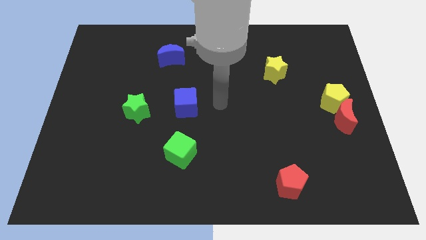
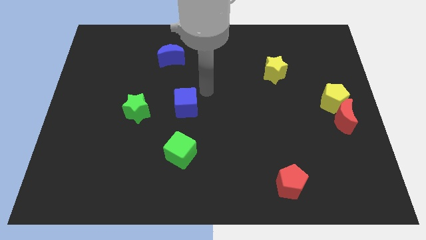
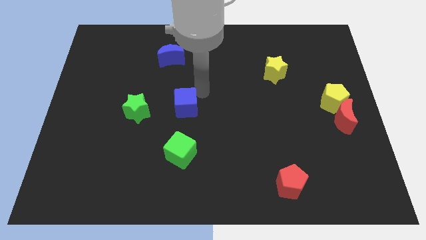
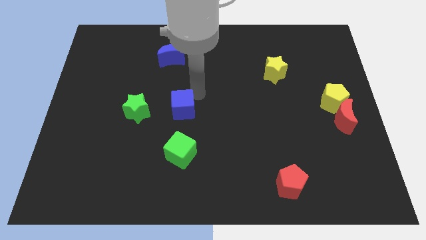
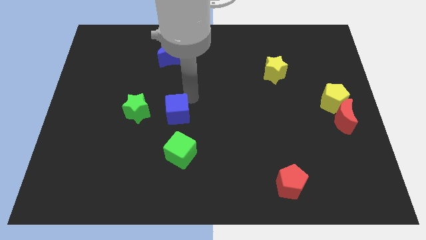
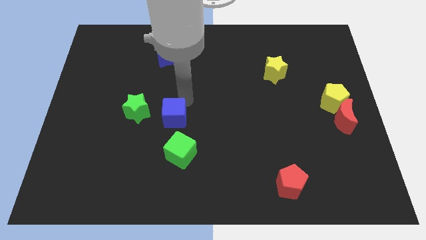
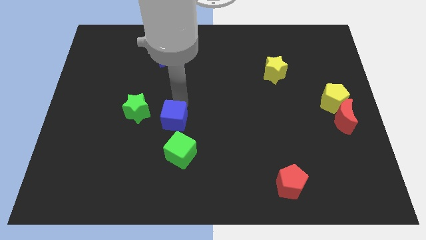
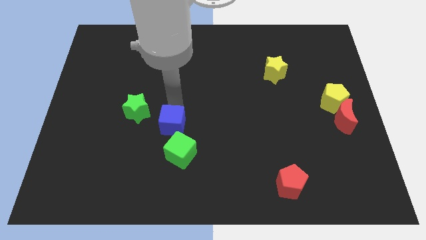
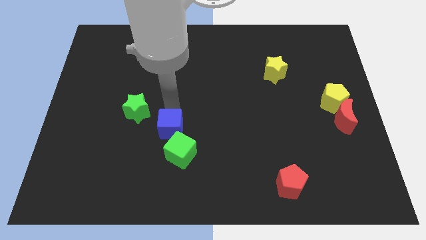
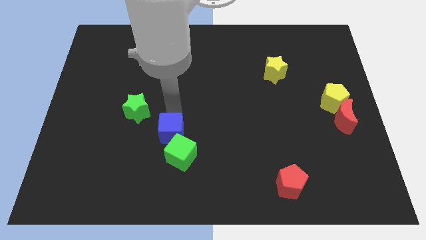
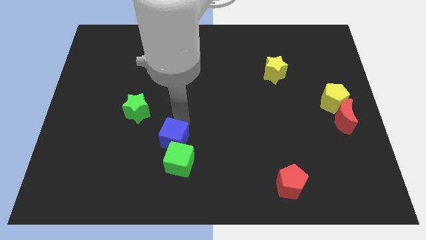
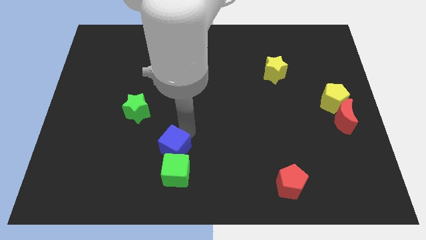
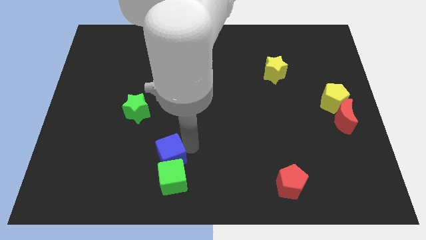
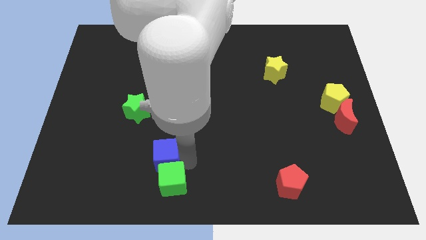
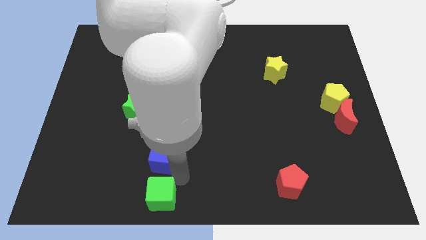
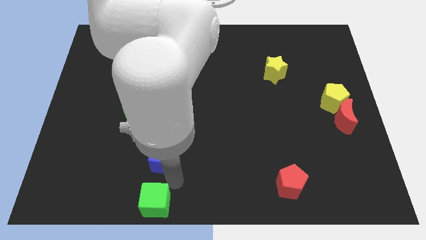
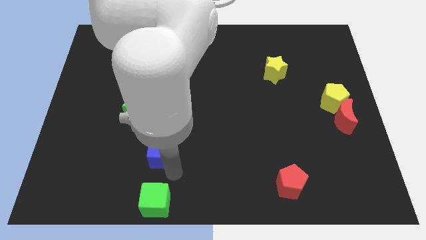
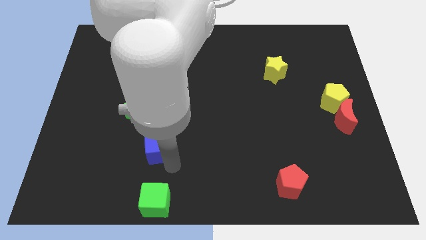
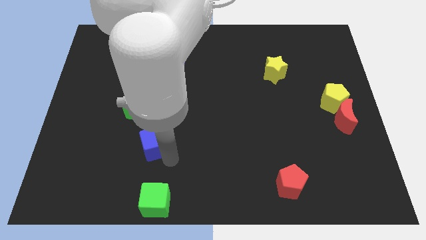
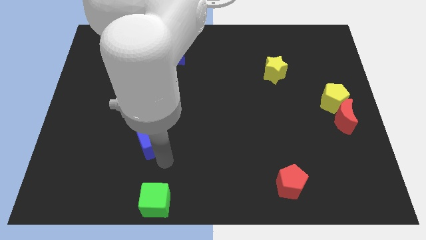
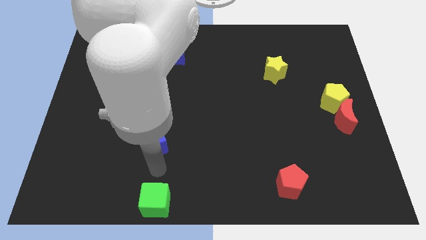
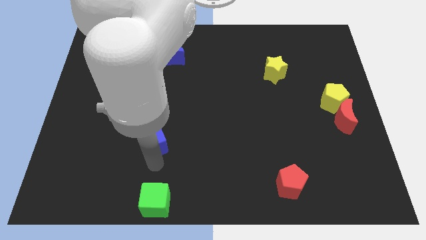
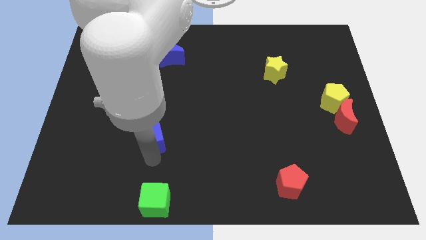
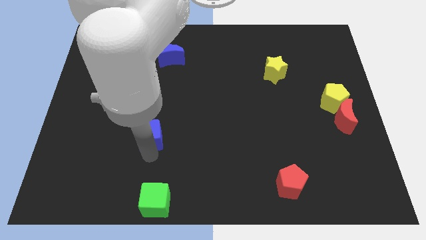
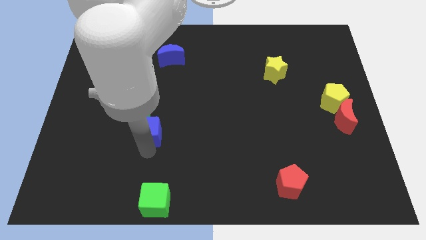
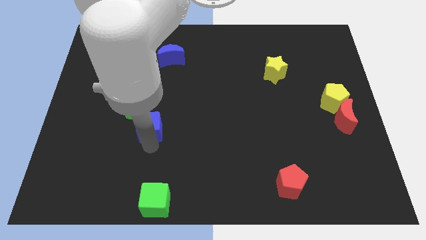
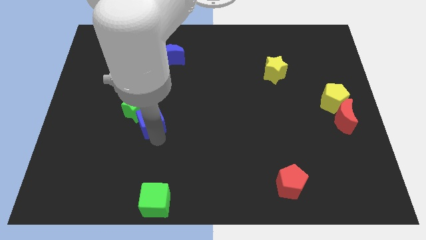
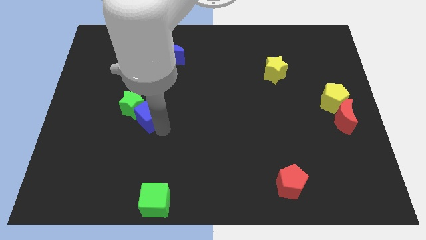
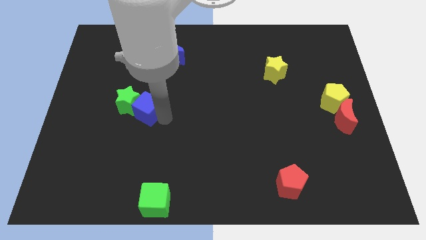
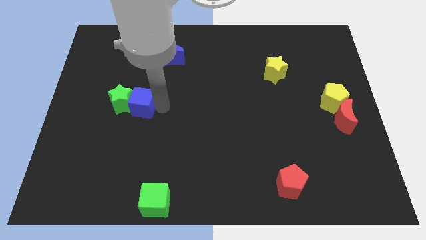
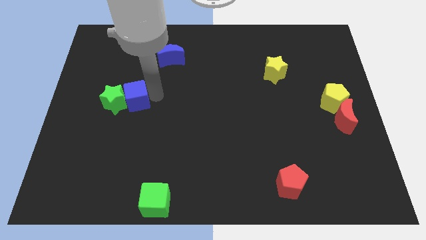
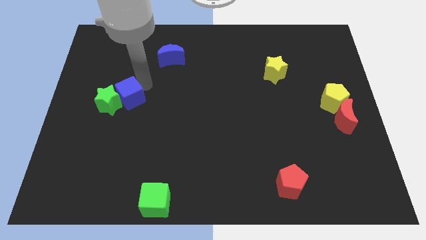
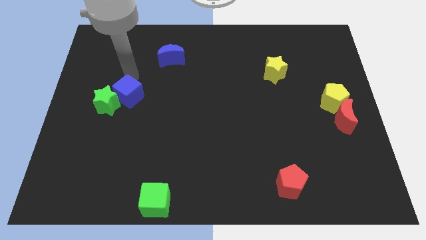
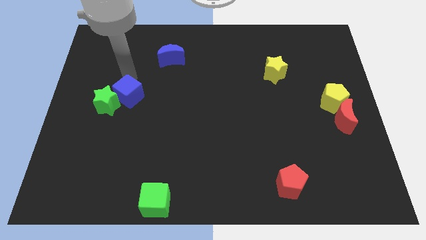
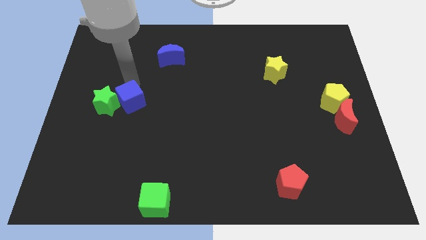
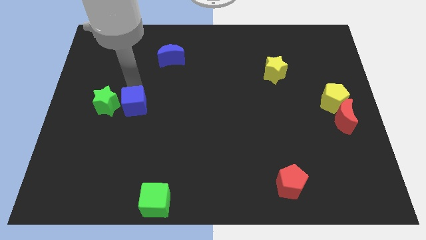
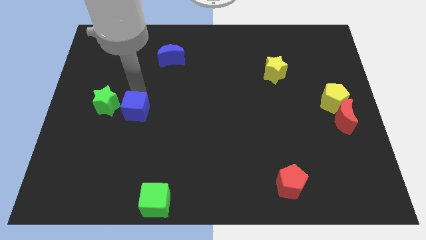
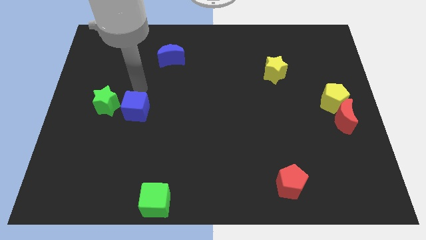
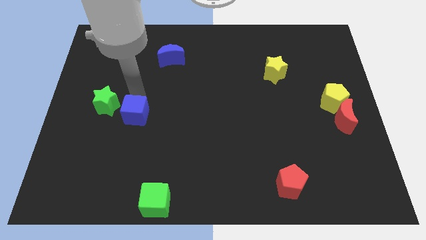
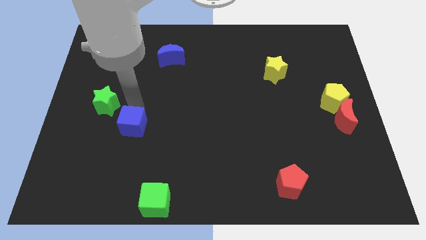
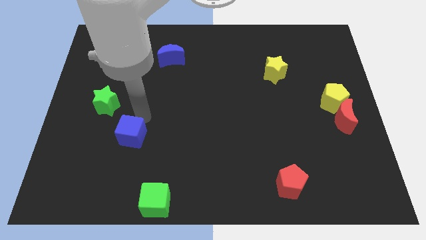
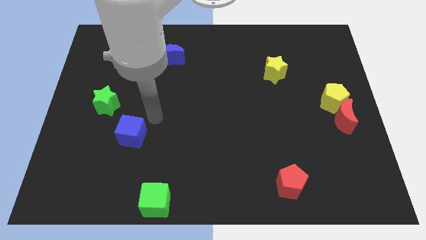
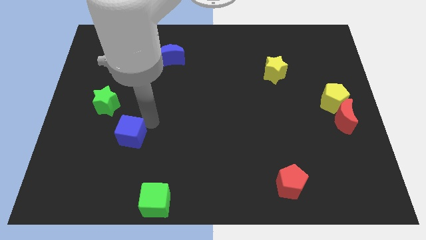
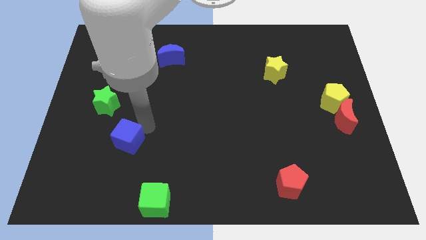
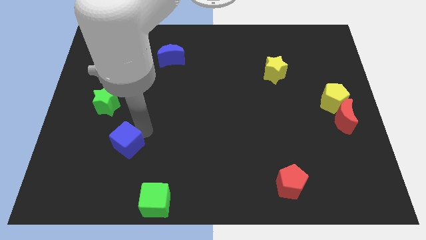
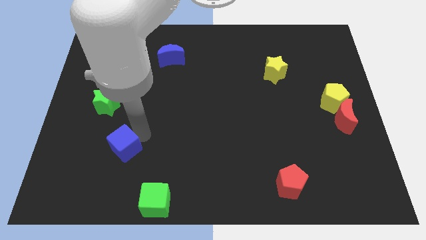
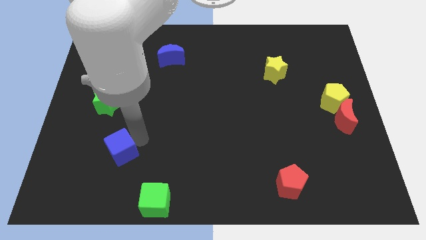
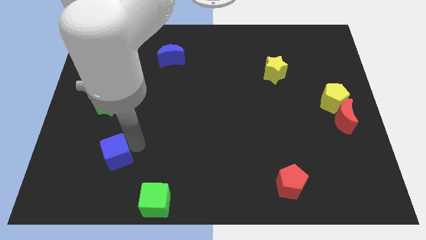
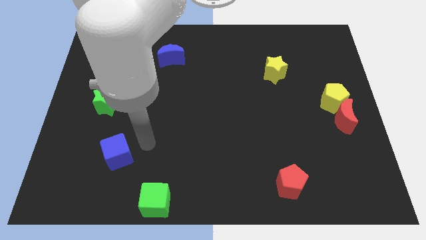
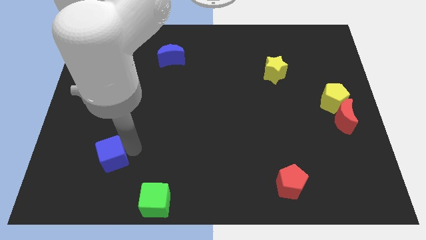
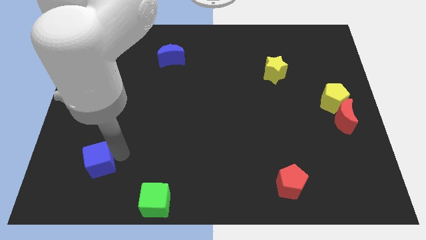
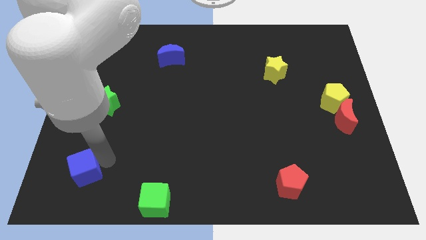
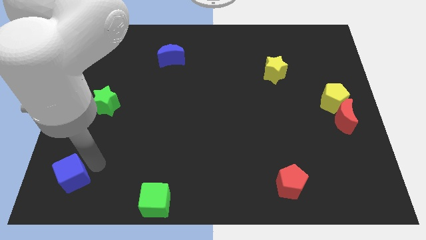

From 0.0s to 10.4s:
put the blue cube to the bottom left of the board

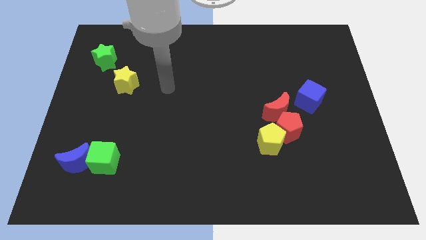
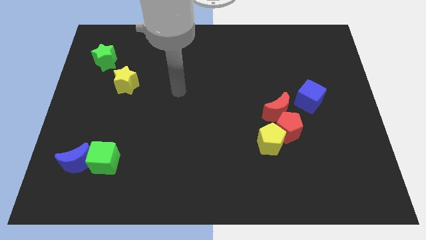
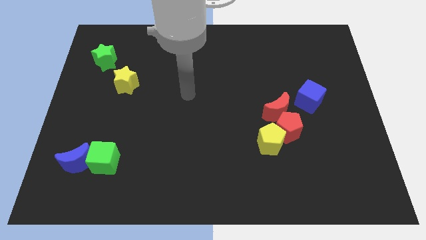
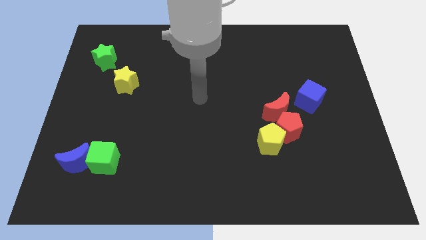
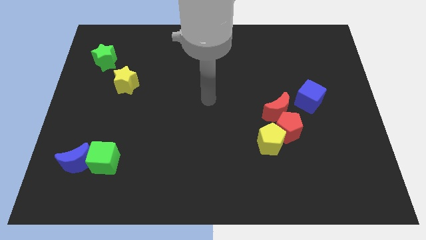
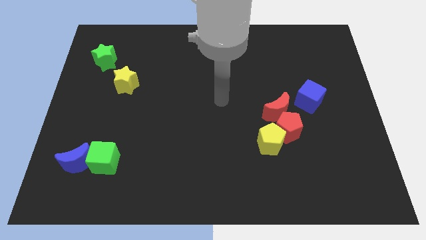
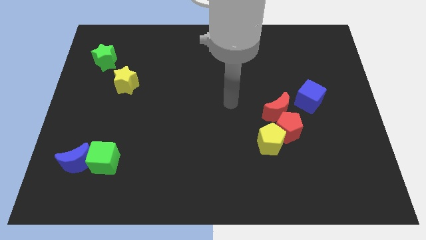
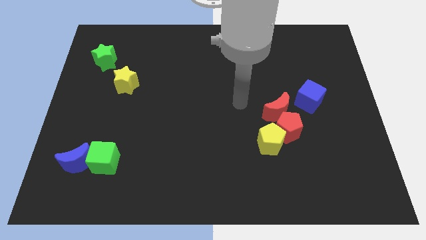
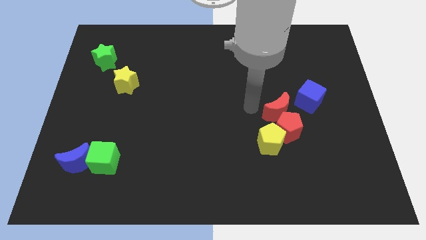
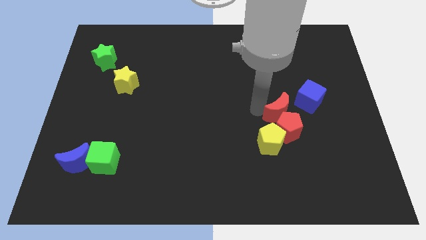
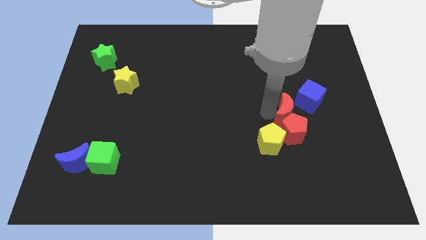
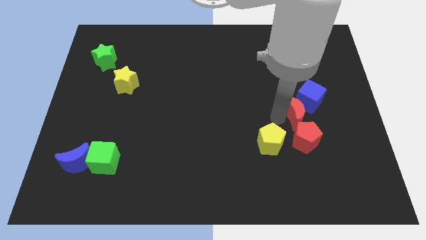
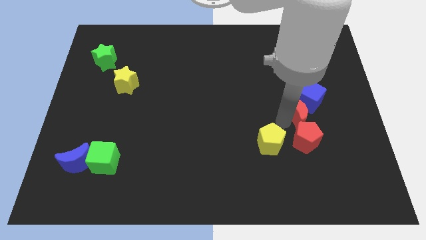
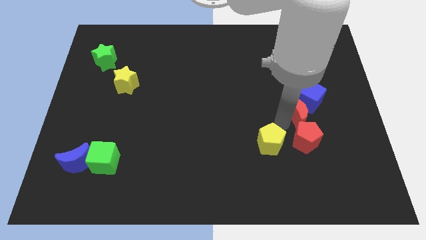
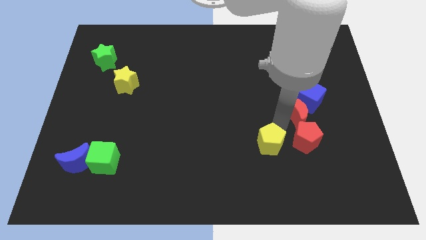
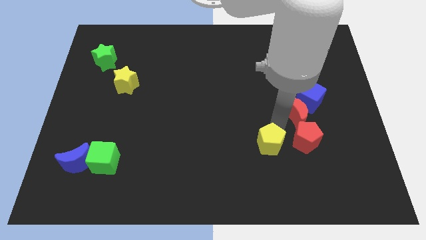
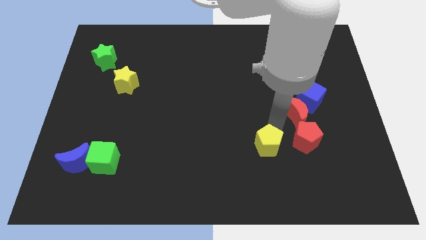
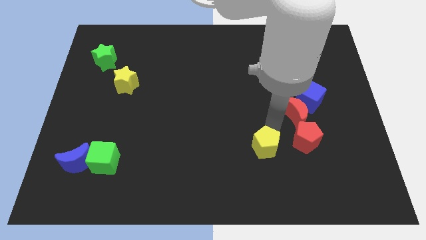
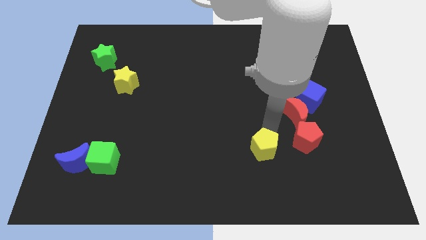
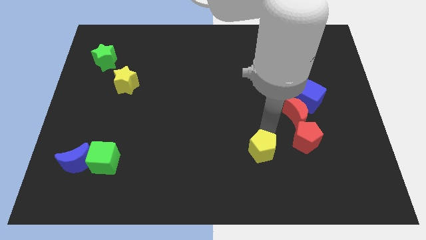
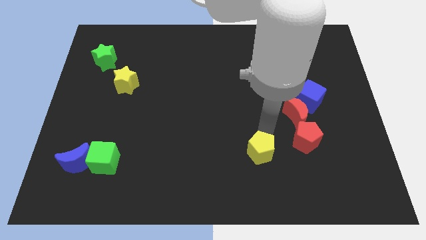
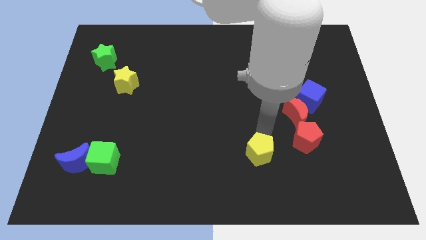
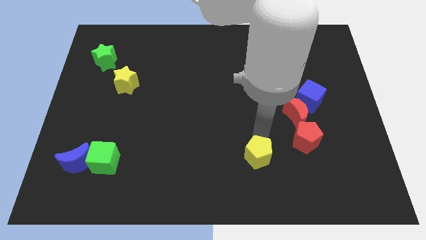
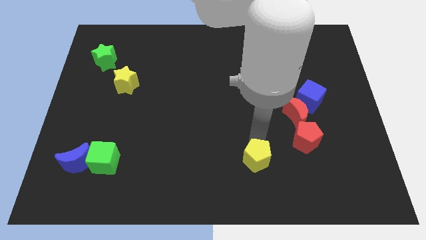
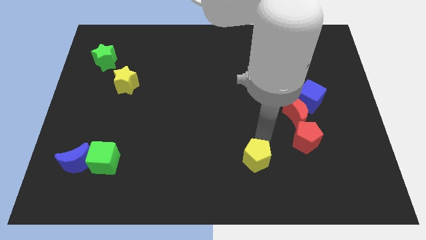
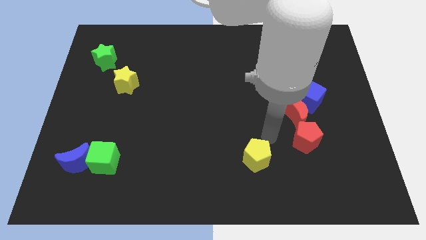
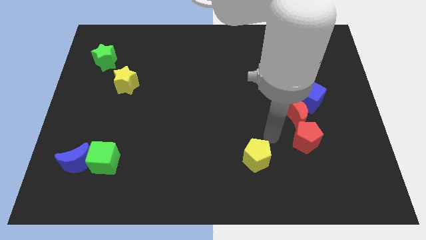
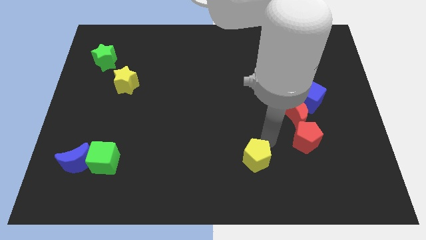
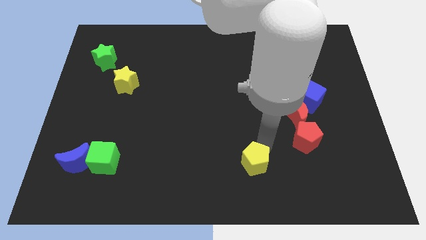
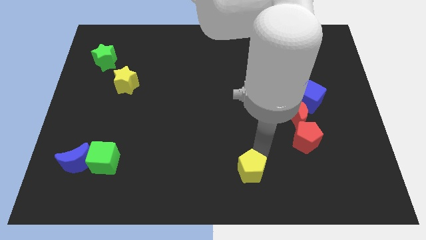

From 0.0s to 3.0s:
move the yellow pentagon to the bottom side
